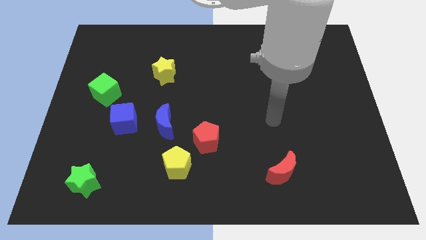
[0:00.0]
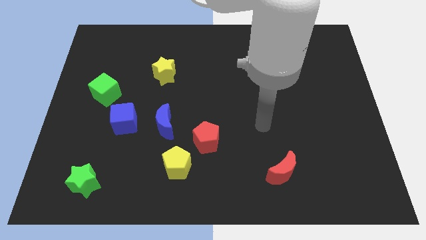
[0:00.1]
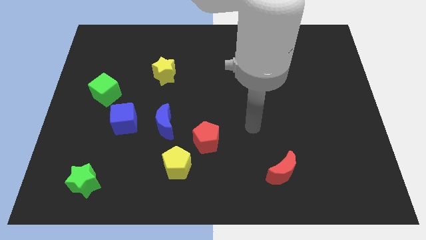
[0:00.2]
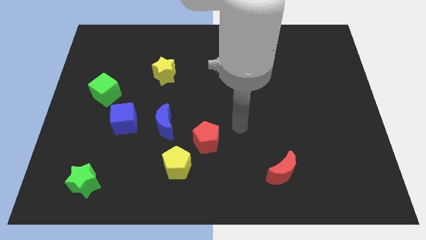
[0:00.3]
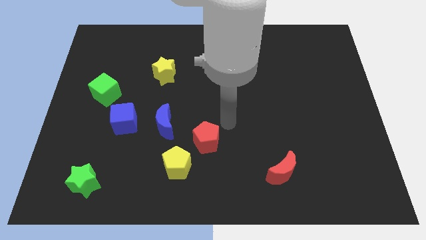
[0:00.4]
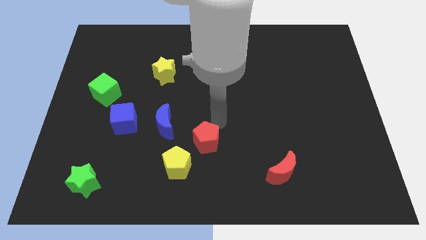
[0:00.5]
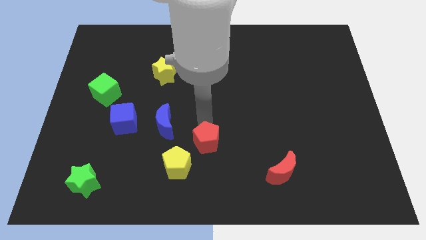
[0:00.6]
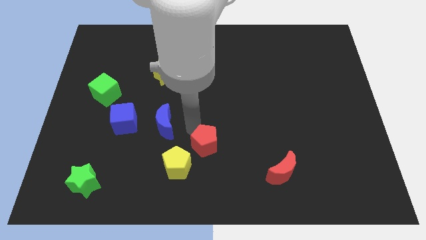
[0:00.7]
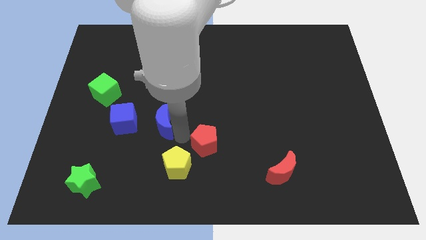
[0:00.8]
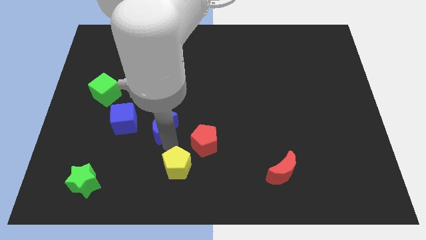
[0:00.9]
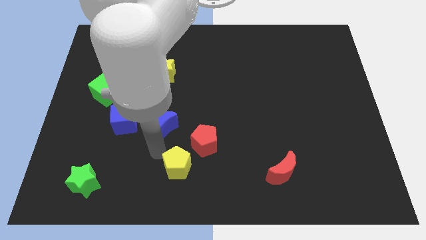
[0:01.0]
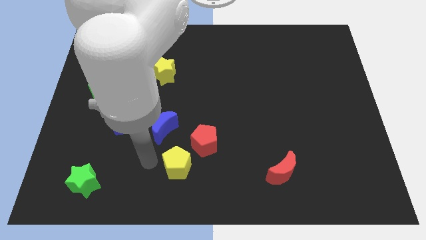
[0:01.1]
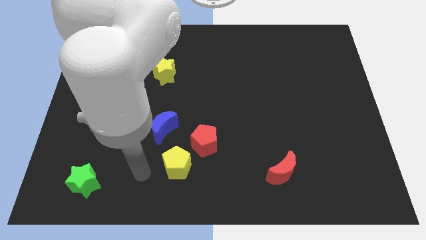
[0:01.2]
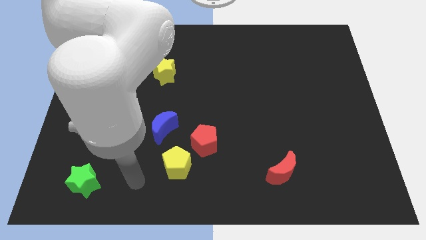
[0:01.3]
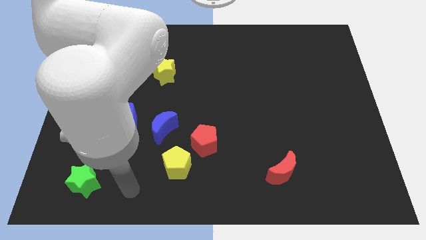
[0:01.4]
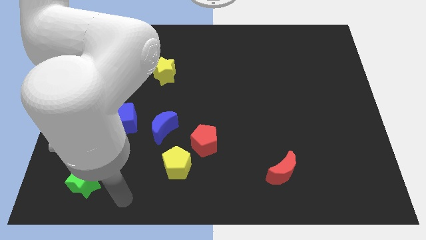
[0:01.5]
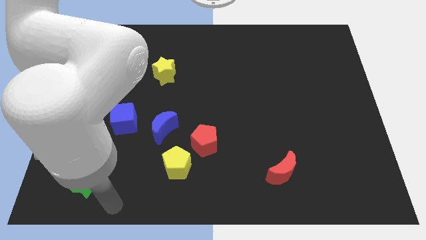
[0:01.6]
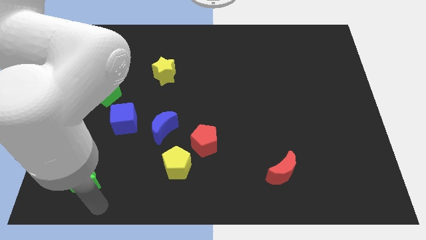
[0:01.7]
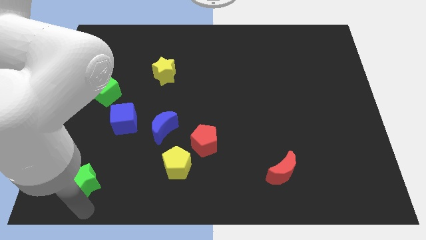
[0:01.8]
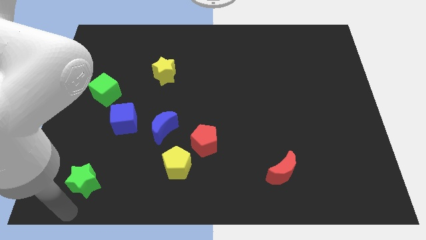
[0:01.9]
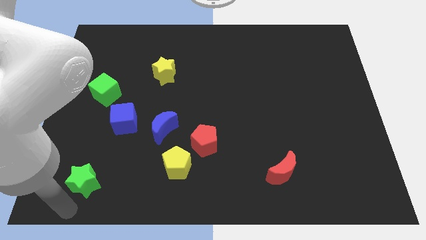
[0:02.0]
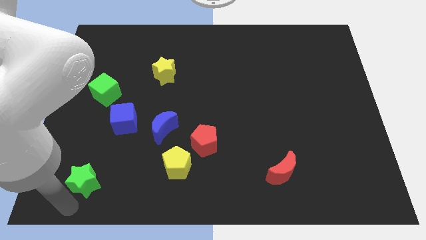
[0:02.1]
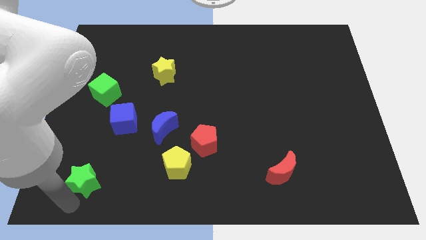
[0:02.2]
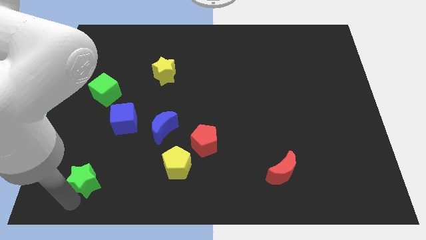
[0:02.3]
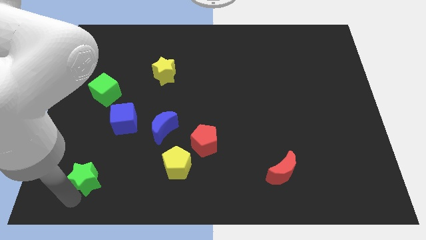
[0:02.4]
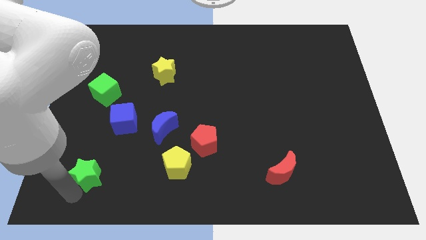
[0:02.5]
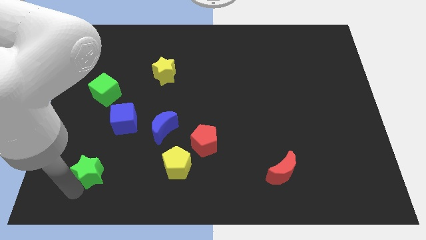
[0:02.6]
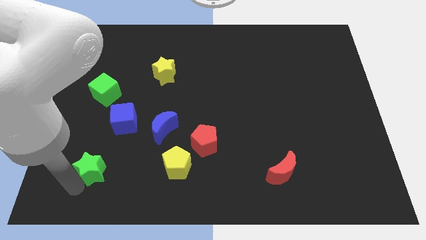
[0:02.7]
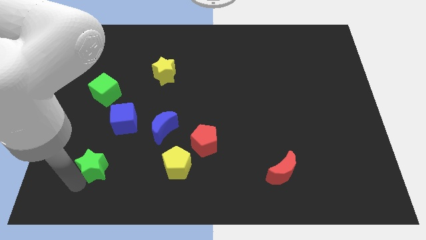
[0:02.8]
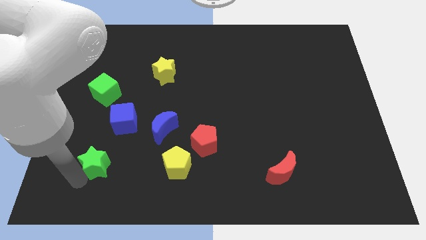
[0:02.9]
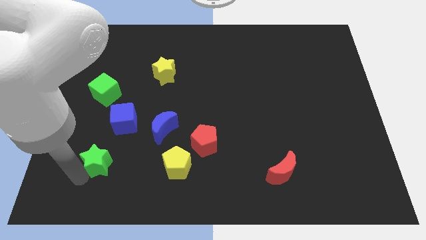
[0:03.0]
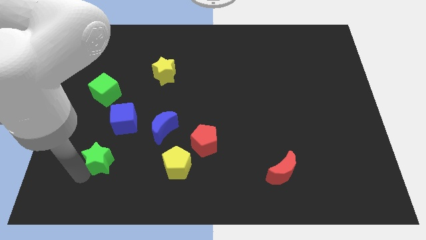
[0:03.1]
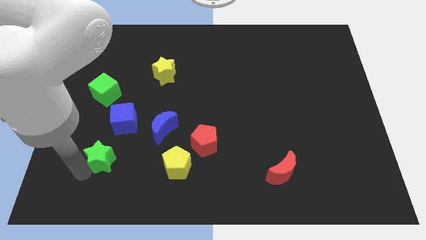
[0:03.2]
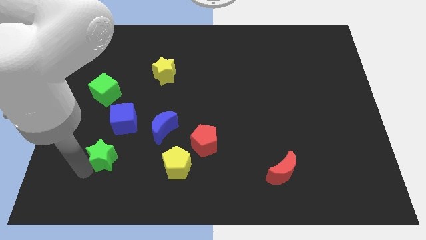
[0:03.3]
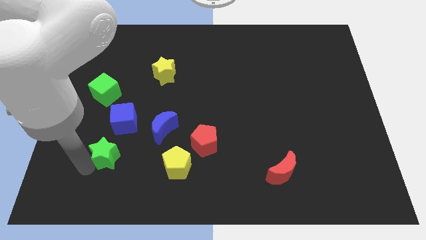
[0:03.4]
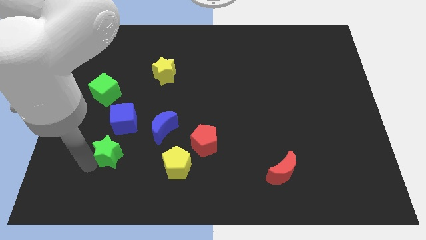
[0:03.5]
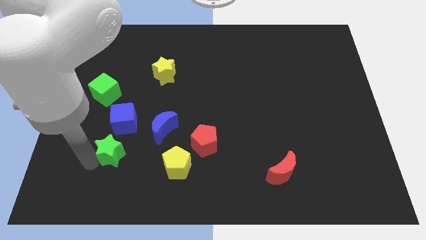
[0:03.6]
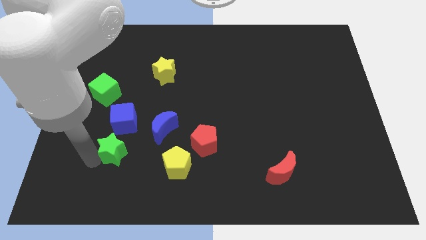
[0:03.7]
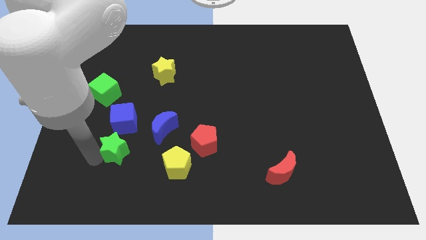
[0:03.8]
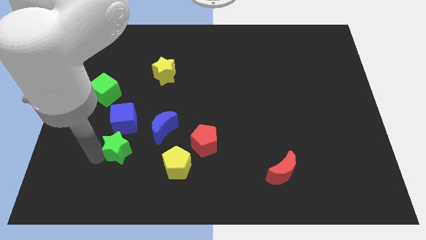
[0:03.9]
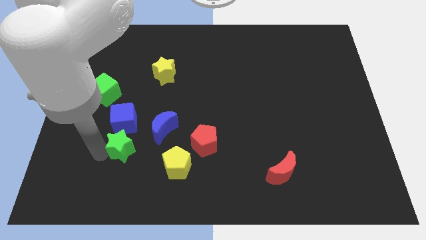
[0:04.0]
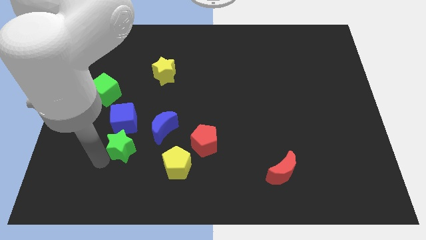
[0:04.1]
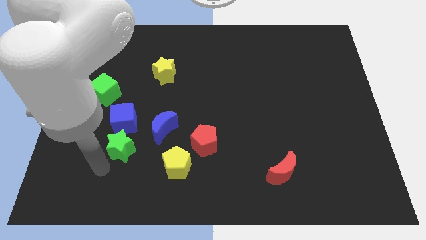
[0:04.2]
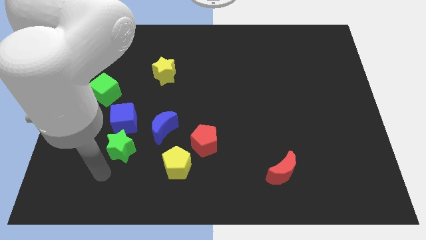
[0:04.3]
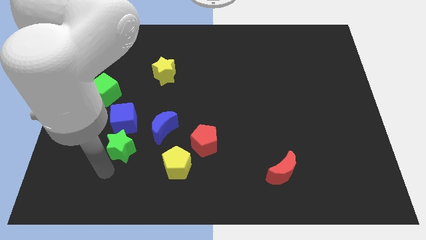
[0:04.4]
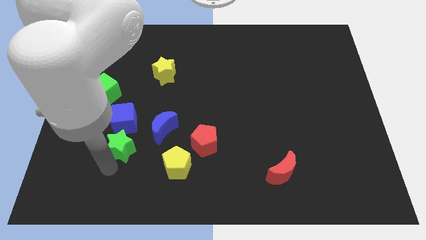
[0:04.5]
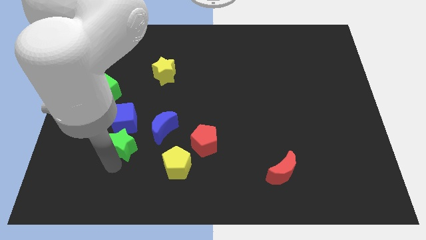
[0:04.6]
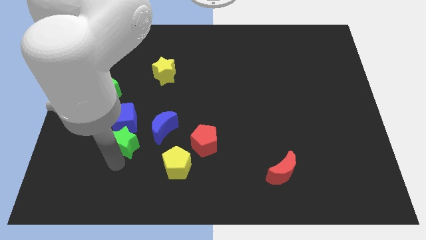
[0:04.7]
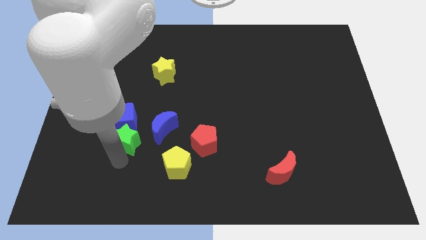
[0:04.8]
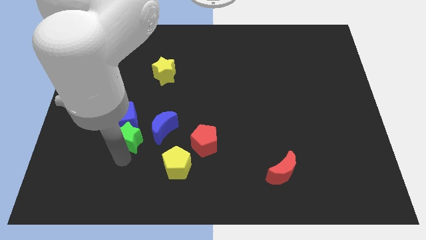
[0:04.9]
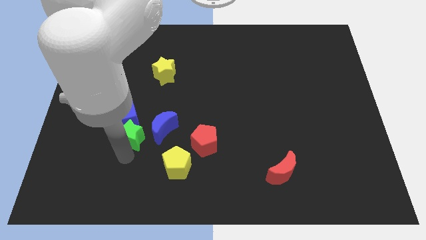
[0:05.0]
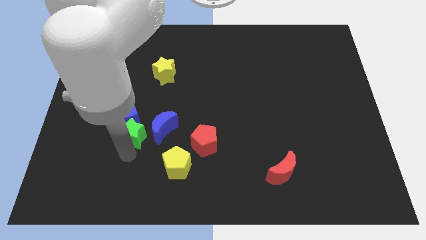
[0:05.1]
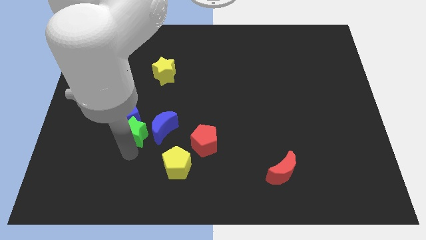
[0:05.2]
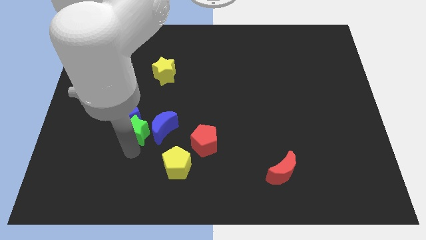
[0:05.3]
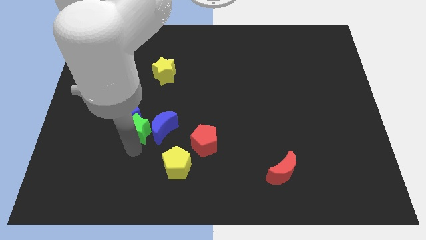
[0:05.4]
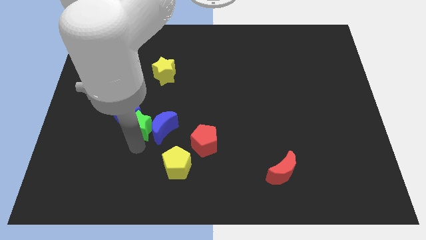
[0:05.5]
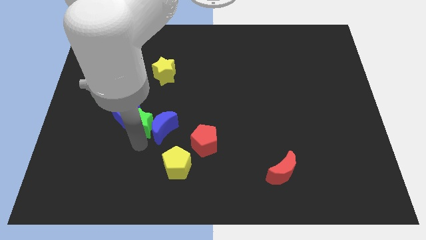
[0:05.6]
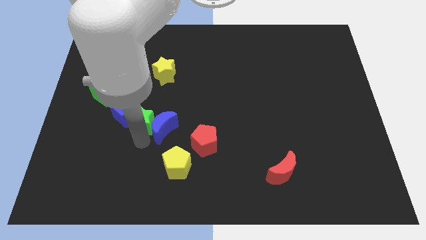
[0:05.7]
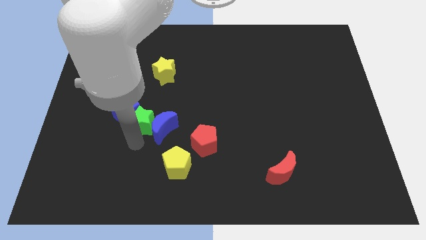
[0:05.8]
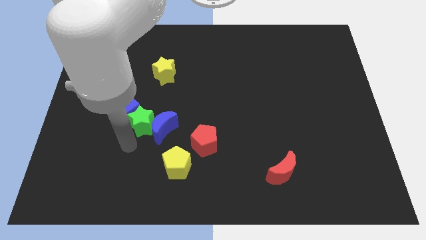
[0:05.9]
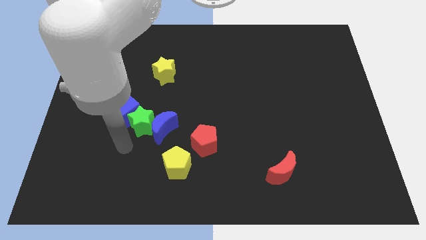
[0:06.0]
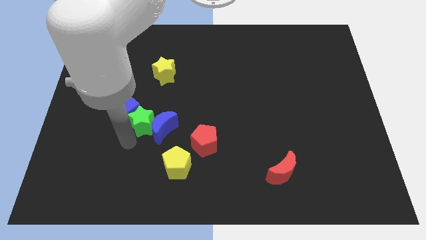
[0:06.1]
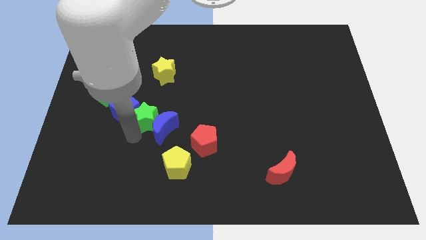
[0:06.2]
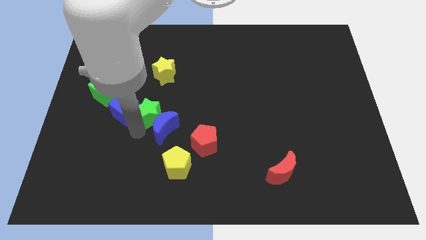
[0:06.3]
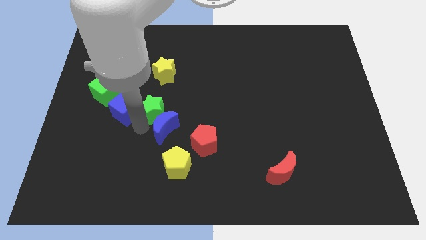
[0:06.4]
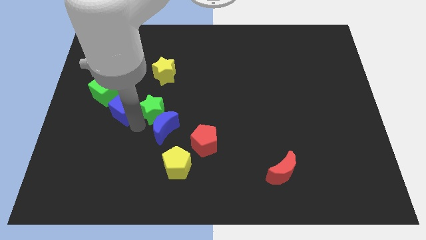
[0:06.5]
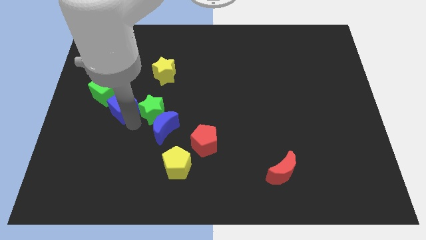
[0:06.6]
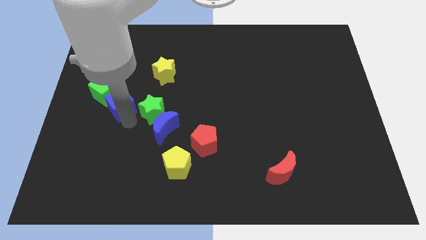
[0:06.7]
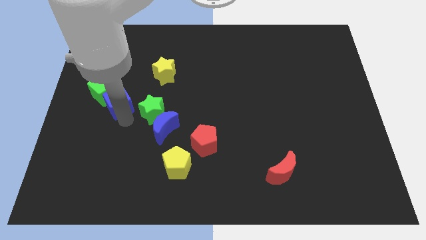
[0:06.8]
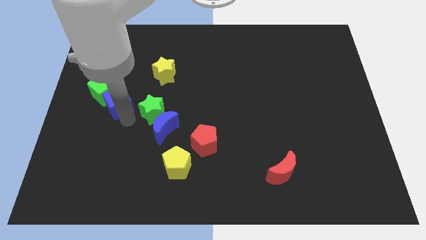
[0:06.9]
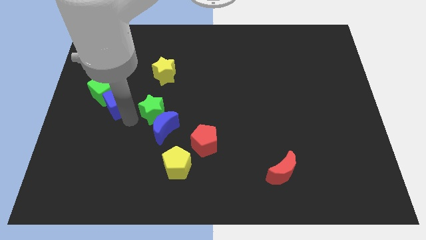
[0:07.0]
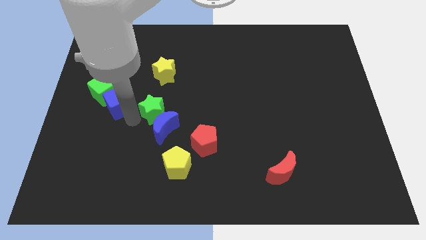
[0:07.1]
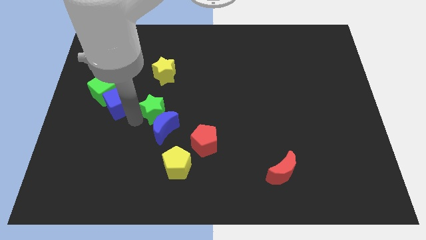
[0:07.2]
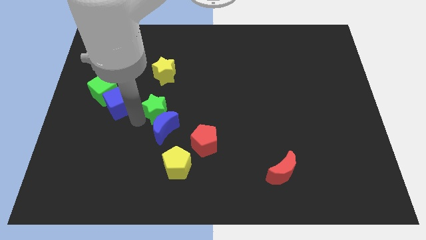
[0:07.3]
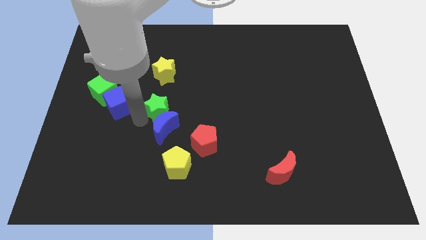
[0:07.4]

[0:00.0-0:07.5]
slide the green star to the top right of the blue moon
